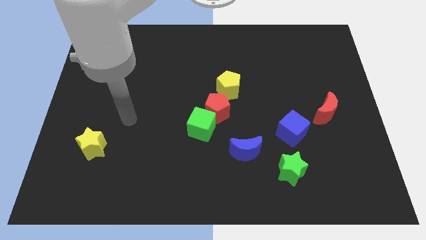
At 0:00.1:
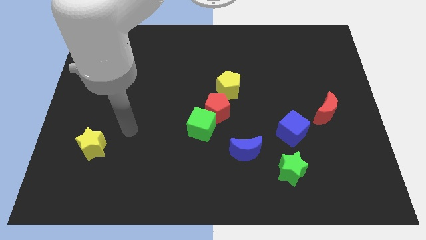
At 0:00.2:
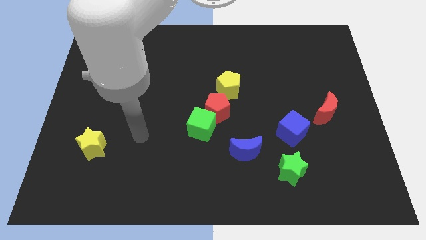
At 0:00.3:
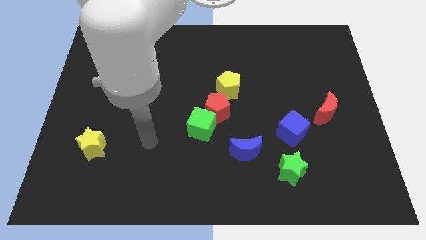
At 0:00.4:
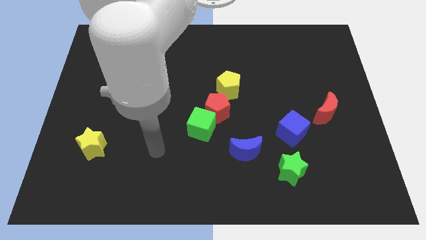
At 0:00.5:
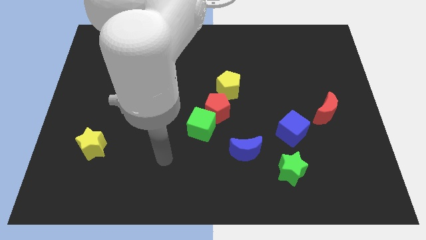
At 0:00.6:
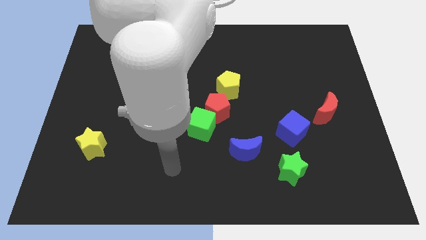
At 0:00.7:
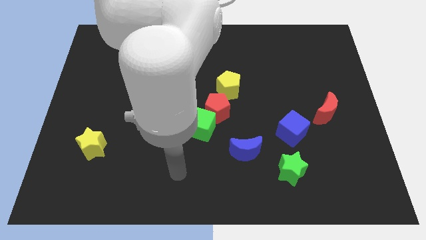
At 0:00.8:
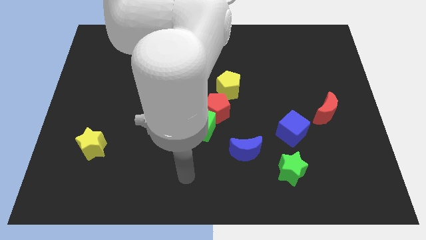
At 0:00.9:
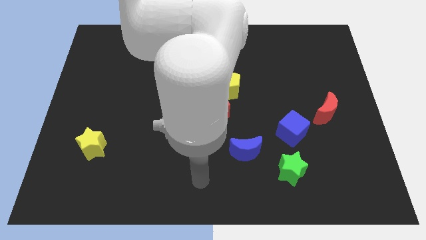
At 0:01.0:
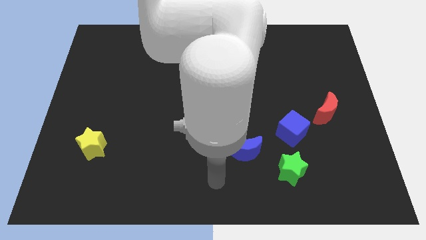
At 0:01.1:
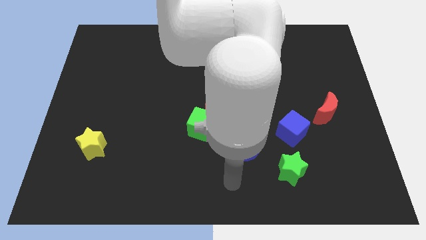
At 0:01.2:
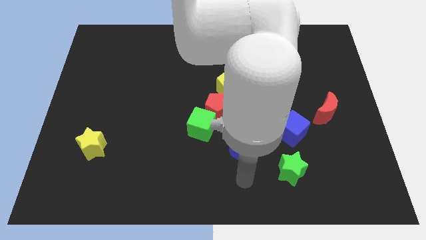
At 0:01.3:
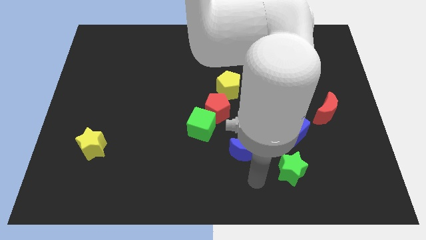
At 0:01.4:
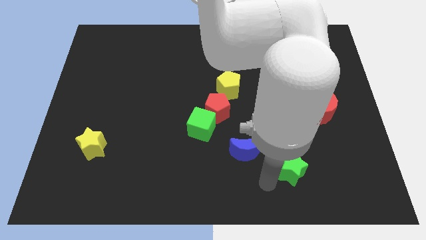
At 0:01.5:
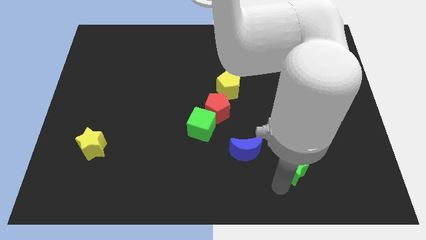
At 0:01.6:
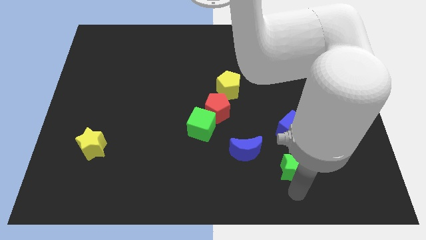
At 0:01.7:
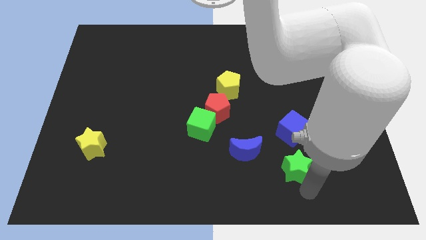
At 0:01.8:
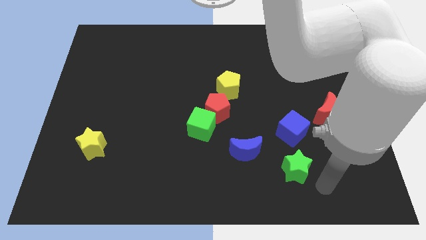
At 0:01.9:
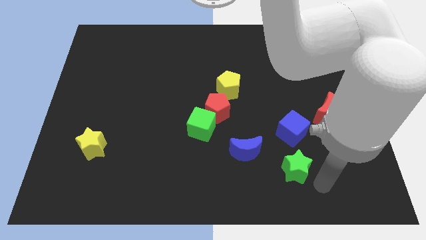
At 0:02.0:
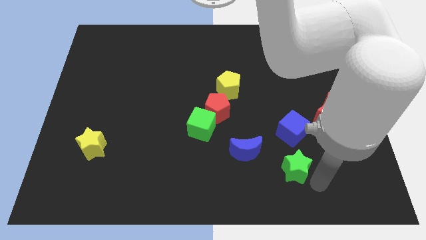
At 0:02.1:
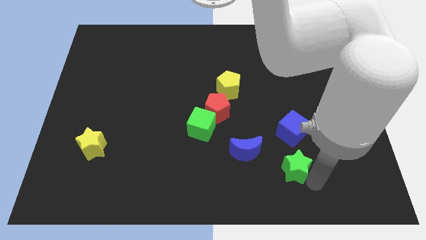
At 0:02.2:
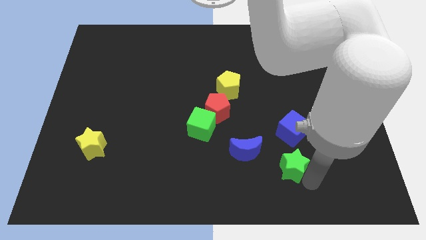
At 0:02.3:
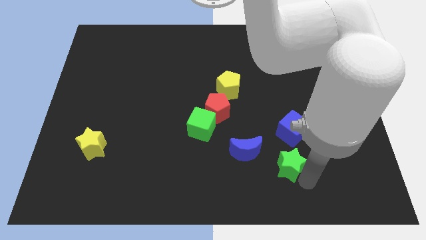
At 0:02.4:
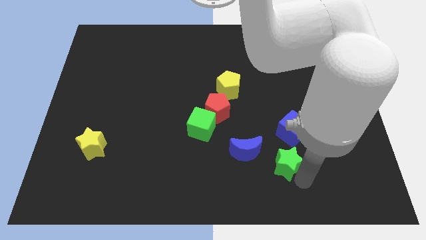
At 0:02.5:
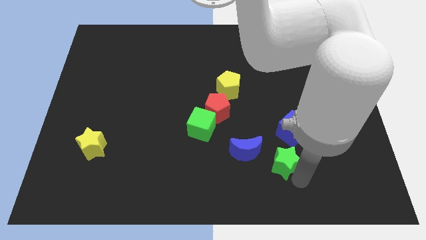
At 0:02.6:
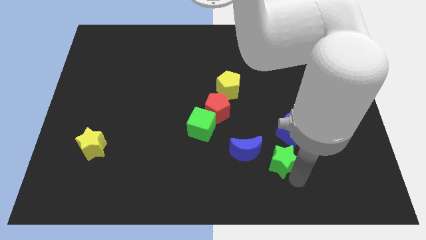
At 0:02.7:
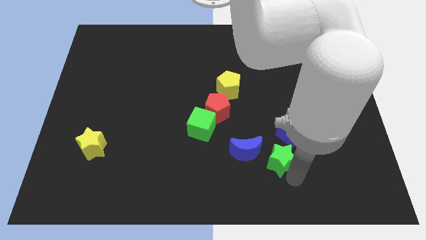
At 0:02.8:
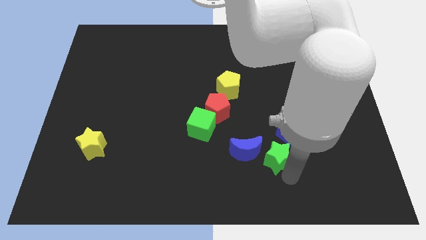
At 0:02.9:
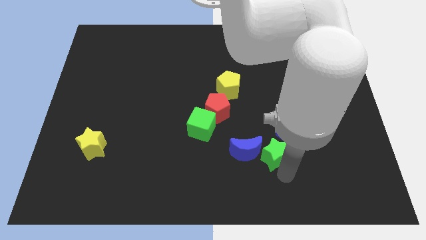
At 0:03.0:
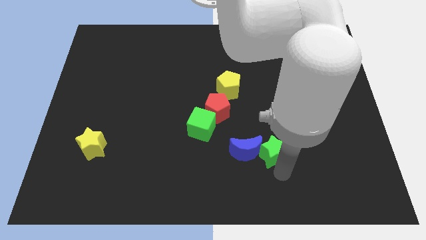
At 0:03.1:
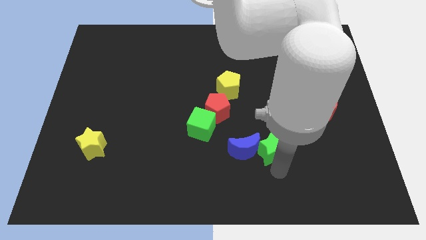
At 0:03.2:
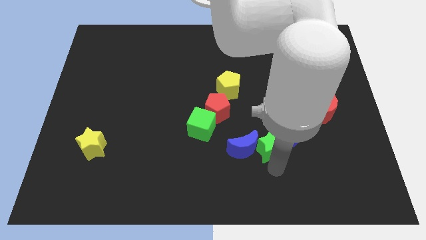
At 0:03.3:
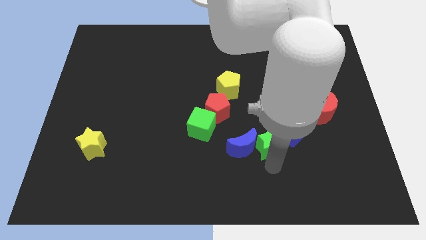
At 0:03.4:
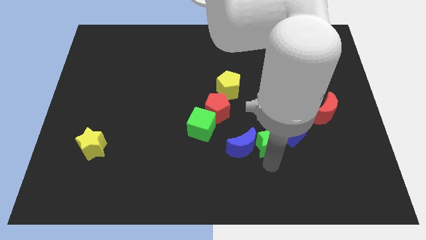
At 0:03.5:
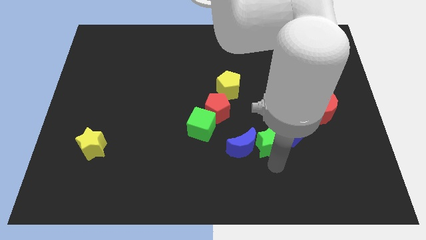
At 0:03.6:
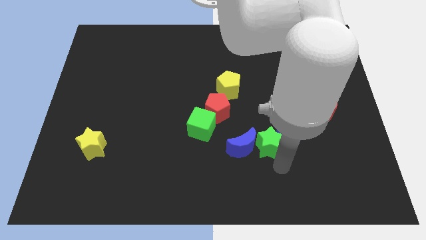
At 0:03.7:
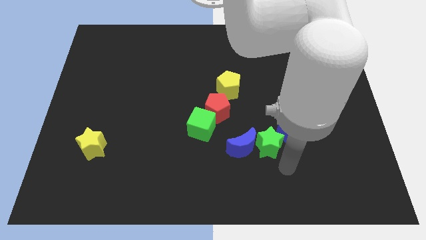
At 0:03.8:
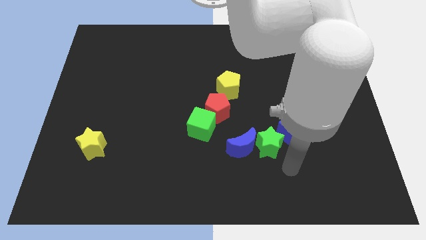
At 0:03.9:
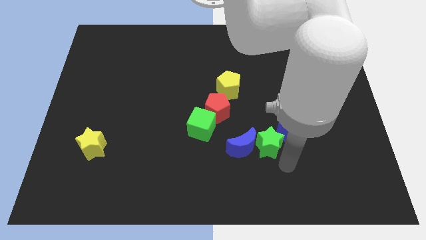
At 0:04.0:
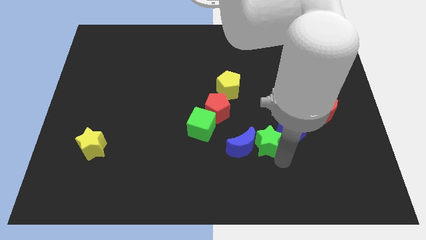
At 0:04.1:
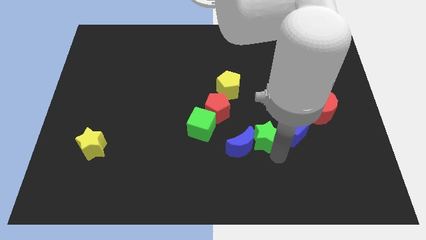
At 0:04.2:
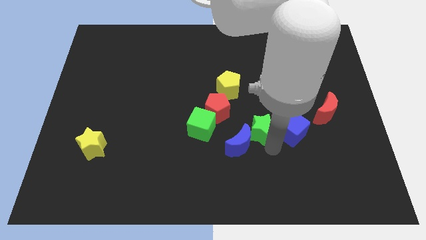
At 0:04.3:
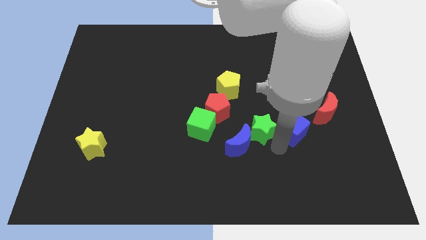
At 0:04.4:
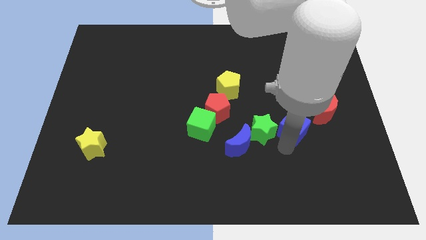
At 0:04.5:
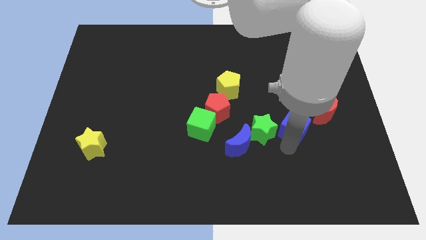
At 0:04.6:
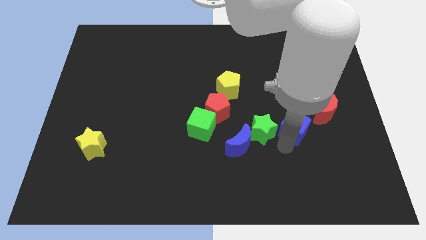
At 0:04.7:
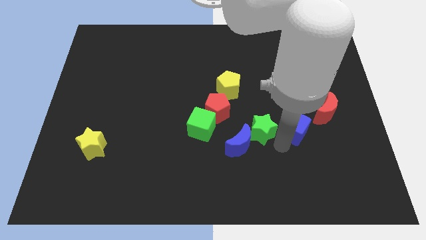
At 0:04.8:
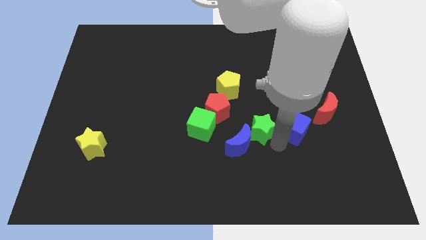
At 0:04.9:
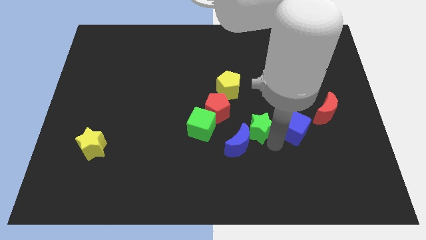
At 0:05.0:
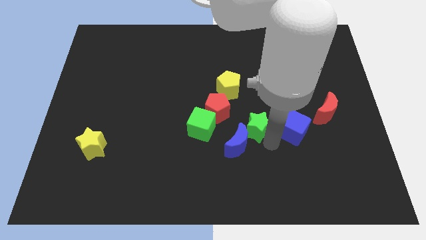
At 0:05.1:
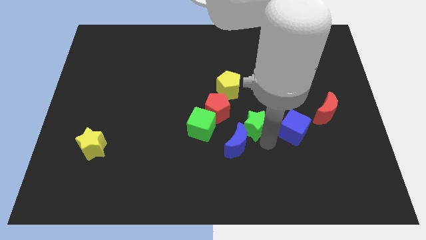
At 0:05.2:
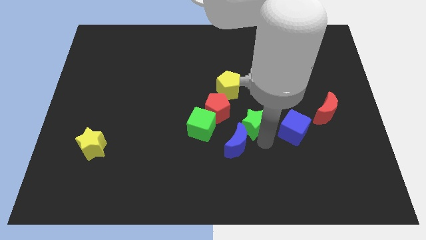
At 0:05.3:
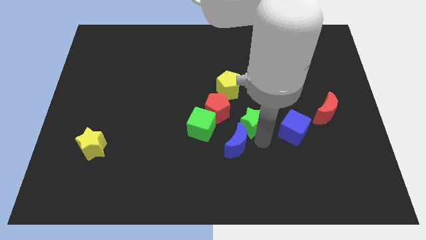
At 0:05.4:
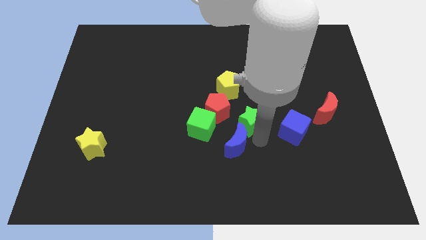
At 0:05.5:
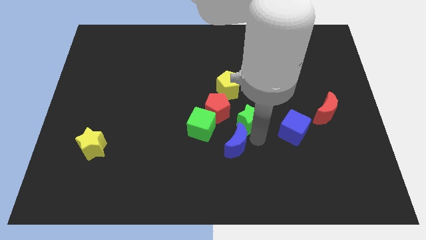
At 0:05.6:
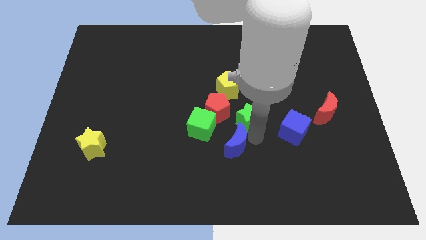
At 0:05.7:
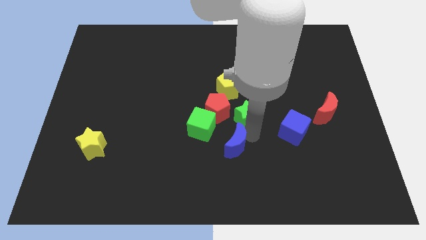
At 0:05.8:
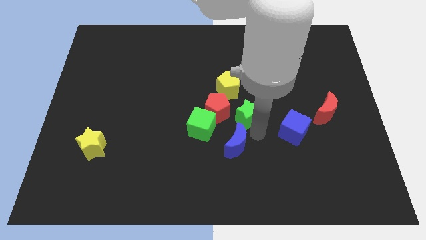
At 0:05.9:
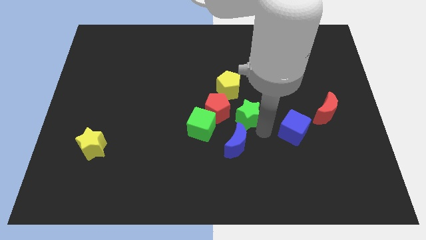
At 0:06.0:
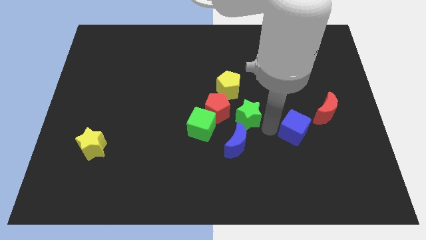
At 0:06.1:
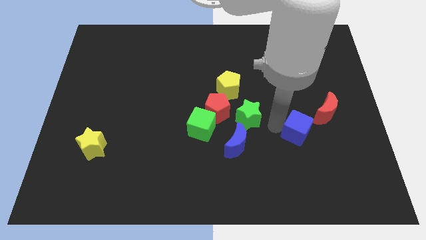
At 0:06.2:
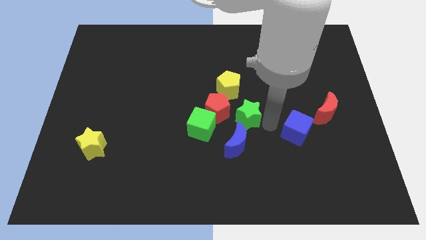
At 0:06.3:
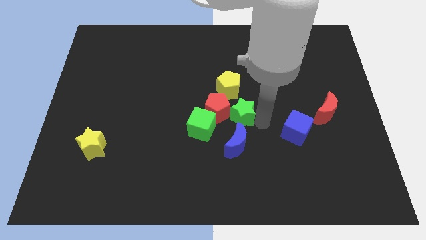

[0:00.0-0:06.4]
push the green star next to the red pentagon

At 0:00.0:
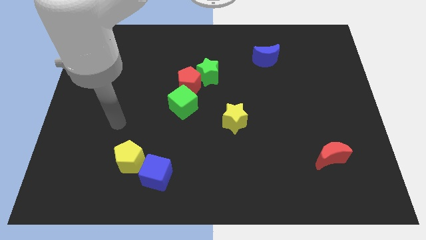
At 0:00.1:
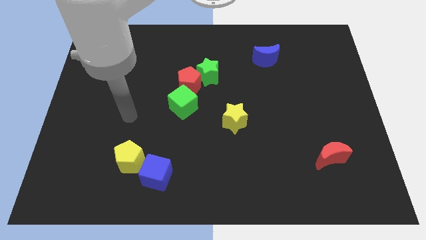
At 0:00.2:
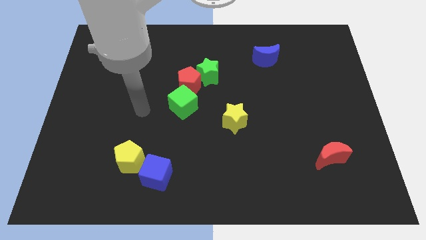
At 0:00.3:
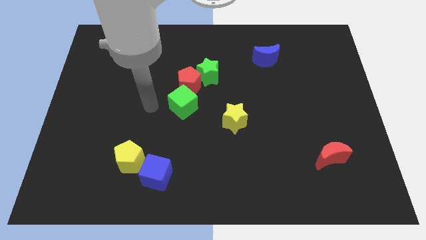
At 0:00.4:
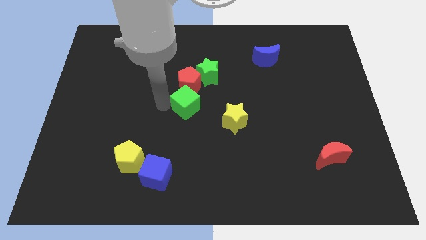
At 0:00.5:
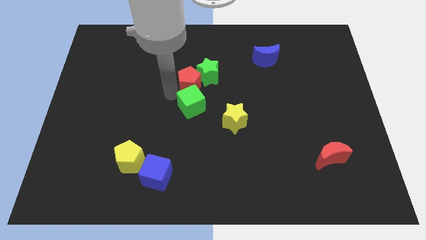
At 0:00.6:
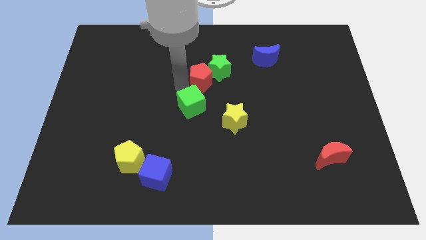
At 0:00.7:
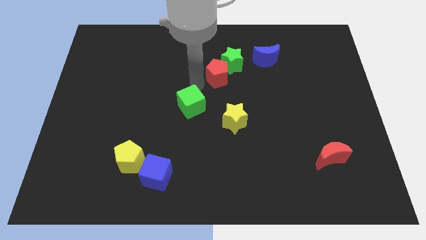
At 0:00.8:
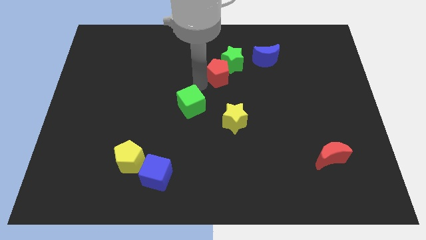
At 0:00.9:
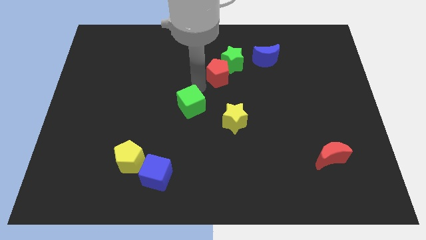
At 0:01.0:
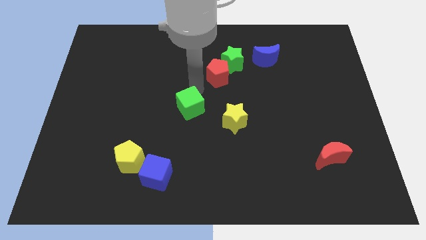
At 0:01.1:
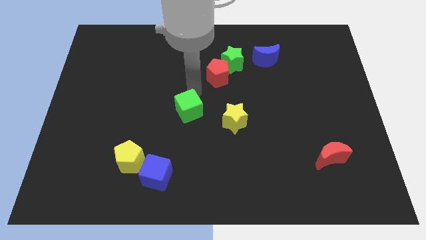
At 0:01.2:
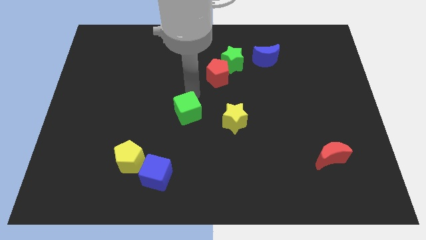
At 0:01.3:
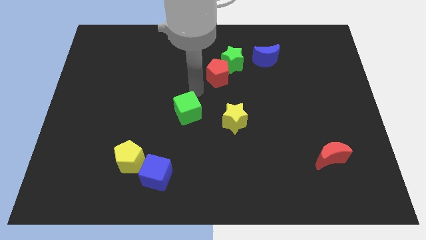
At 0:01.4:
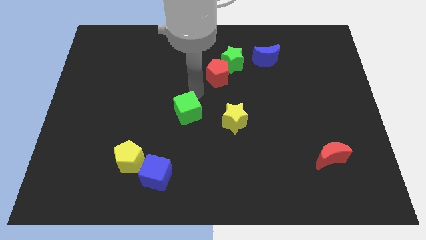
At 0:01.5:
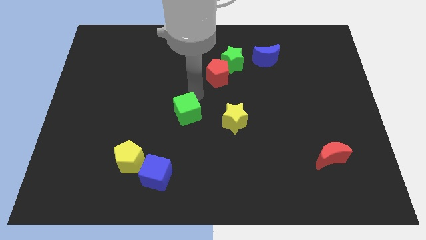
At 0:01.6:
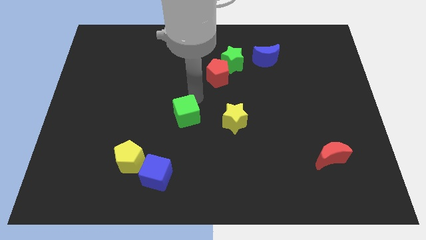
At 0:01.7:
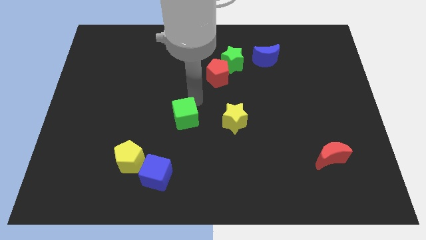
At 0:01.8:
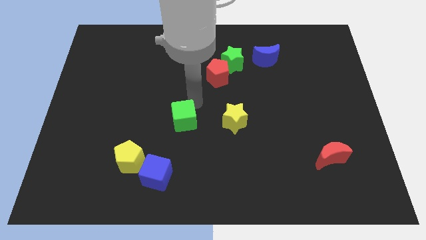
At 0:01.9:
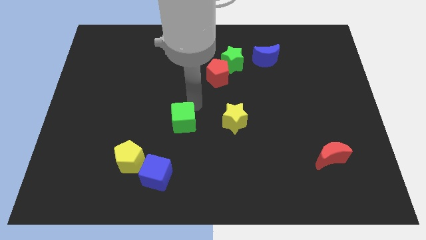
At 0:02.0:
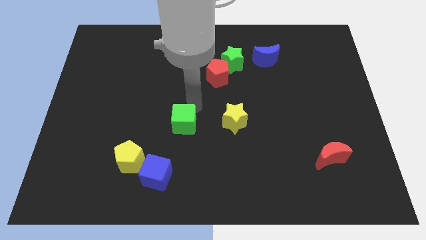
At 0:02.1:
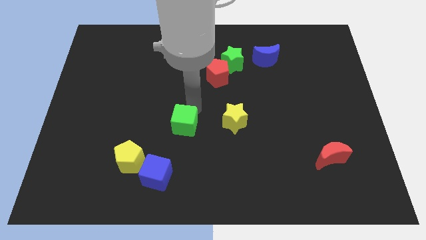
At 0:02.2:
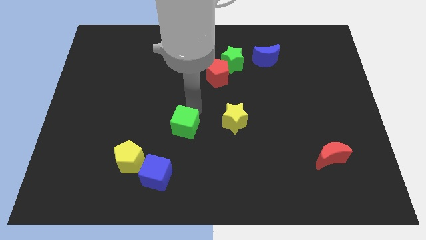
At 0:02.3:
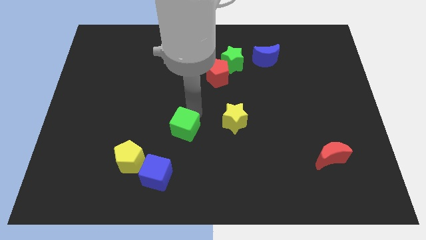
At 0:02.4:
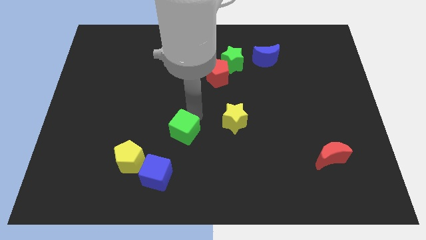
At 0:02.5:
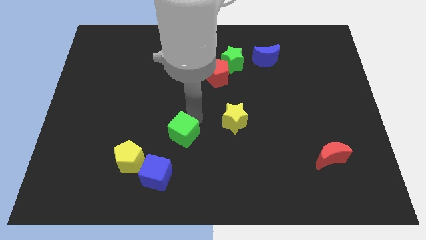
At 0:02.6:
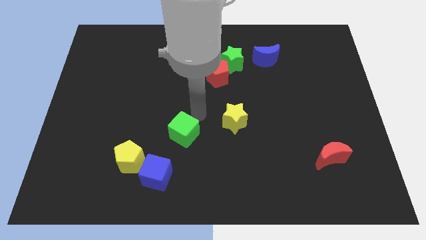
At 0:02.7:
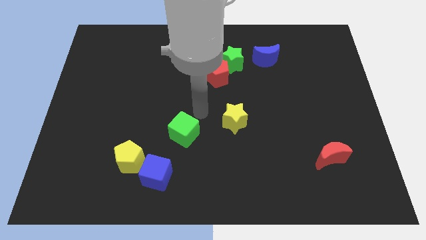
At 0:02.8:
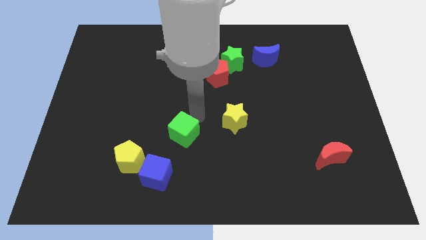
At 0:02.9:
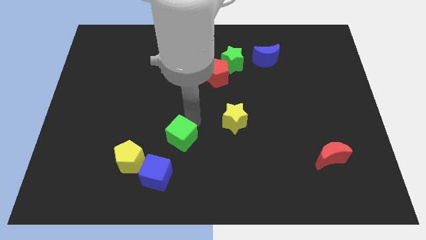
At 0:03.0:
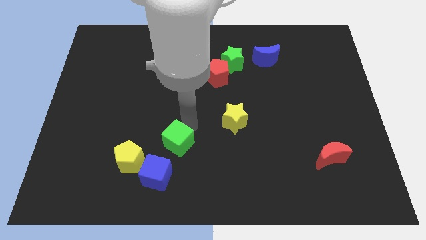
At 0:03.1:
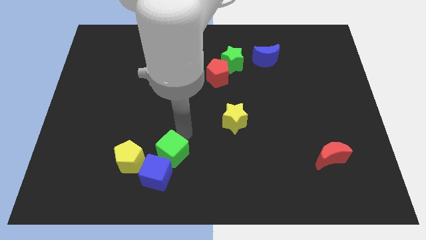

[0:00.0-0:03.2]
push the green cube to the blue cube
